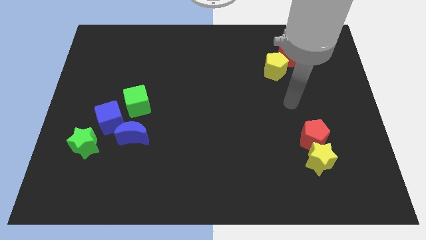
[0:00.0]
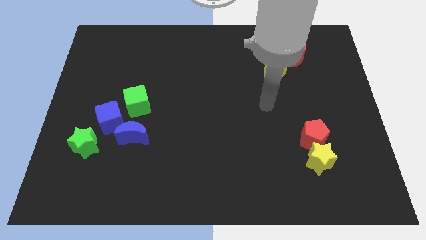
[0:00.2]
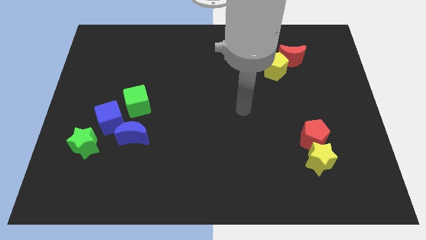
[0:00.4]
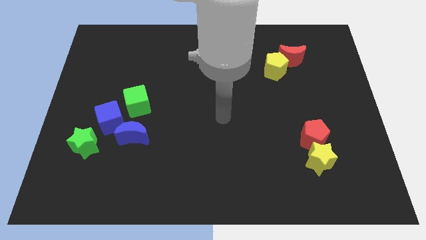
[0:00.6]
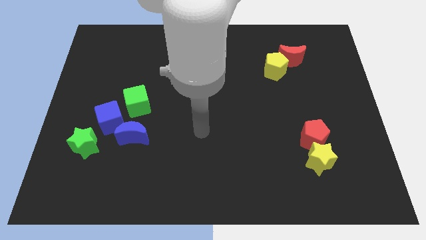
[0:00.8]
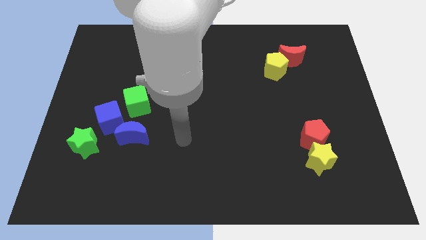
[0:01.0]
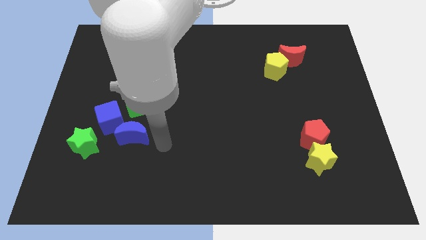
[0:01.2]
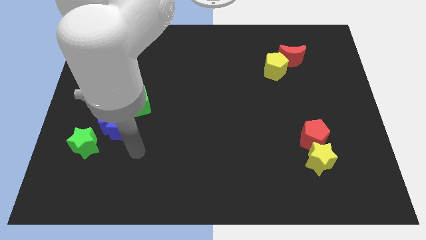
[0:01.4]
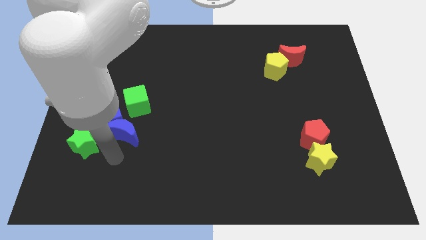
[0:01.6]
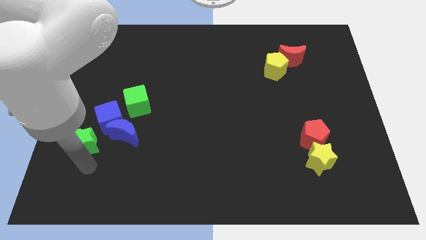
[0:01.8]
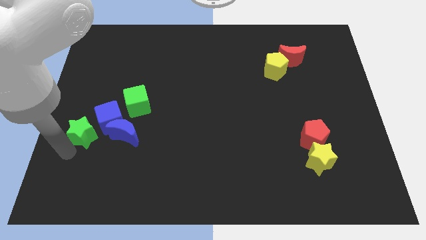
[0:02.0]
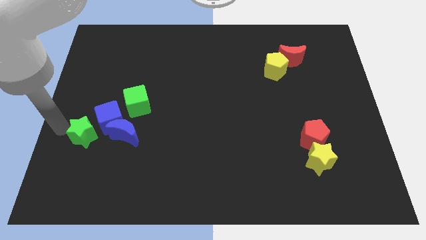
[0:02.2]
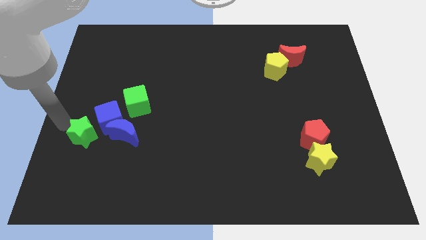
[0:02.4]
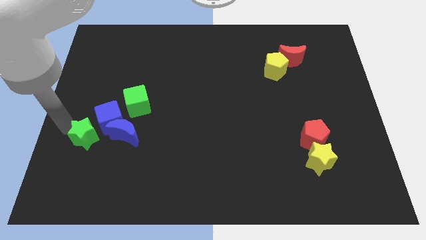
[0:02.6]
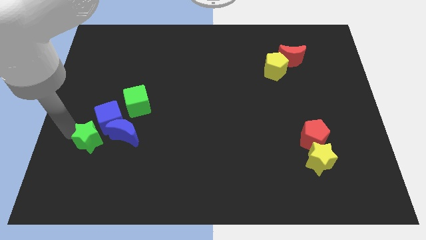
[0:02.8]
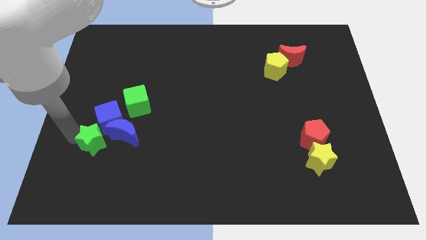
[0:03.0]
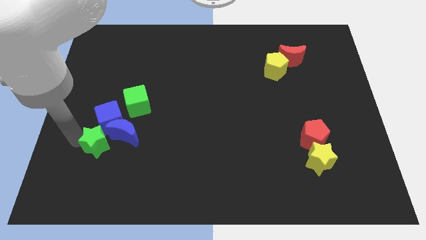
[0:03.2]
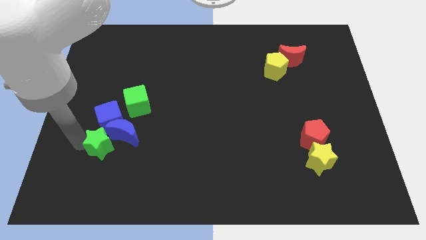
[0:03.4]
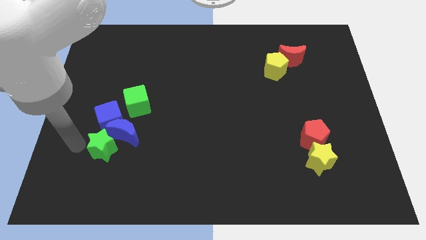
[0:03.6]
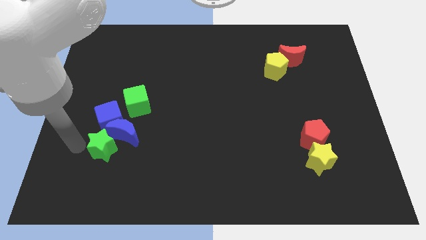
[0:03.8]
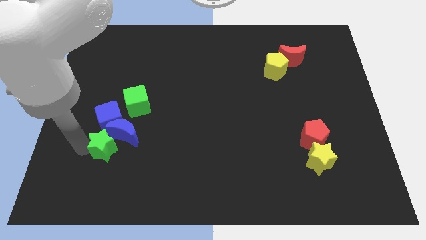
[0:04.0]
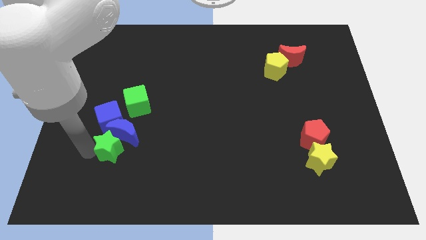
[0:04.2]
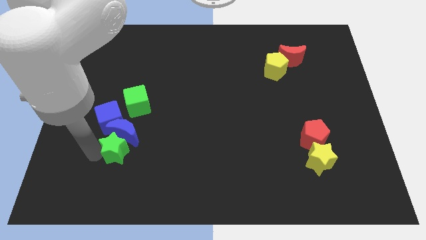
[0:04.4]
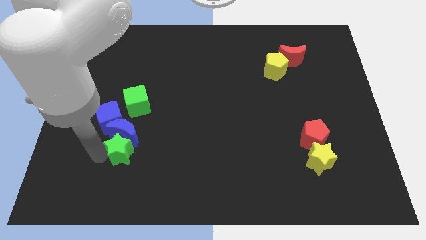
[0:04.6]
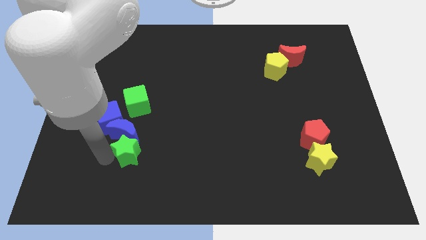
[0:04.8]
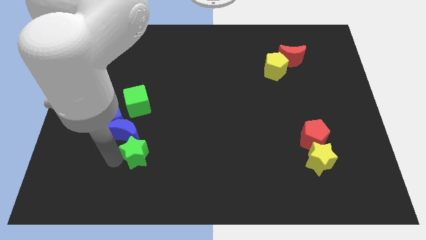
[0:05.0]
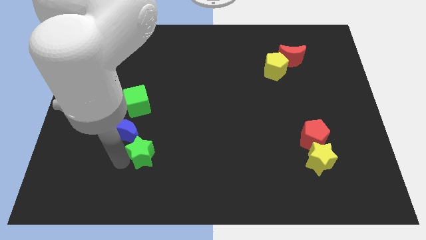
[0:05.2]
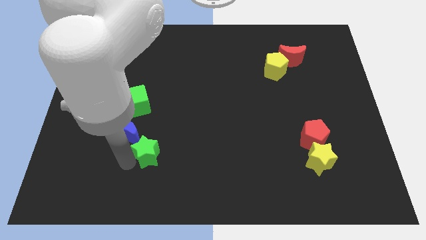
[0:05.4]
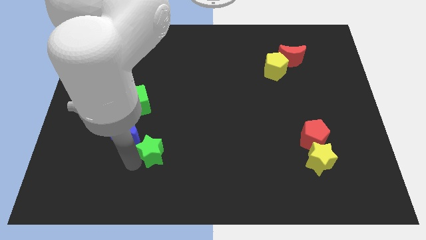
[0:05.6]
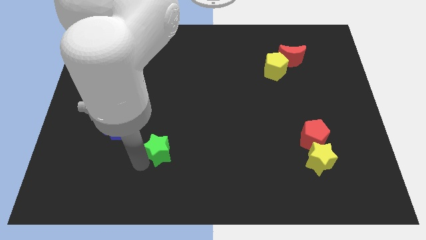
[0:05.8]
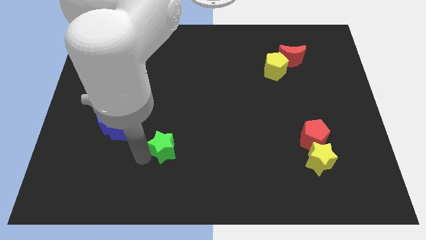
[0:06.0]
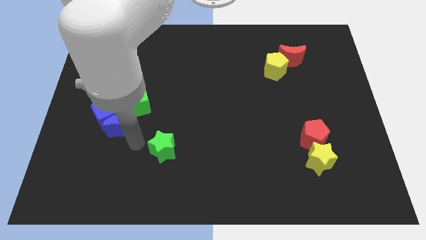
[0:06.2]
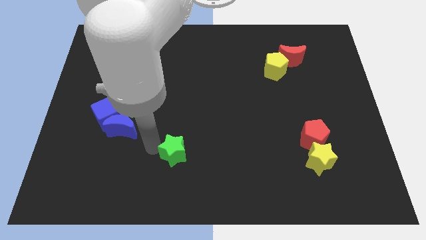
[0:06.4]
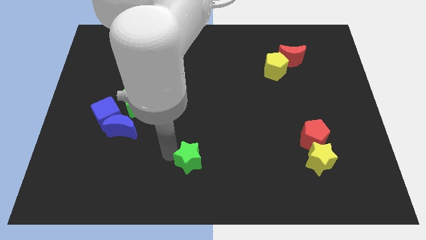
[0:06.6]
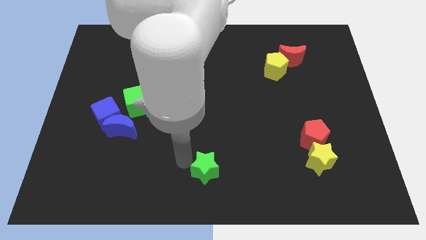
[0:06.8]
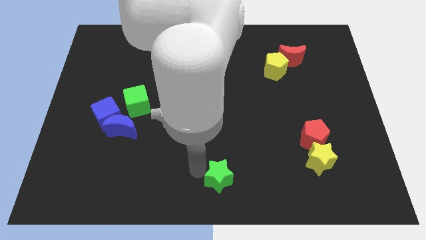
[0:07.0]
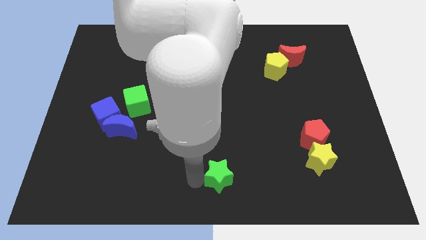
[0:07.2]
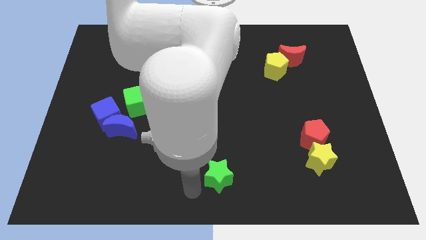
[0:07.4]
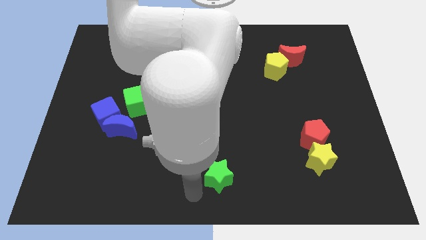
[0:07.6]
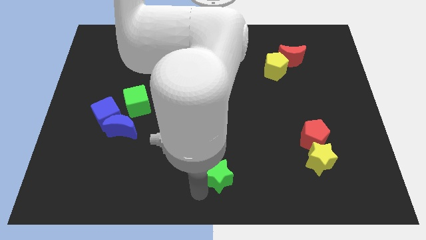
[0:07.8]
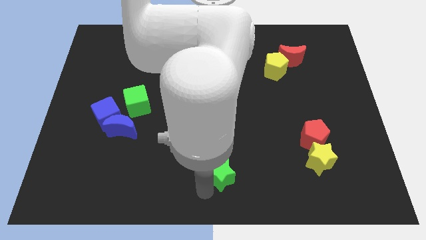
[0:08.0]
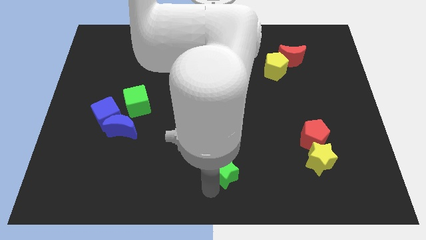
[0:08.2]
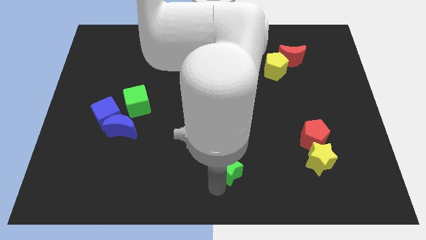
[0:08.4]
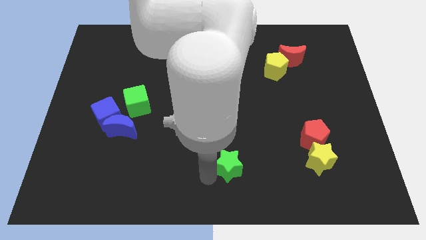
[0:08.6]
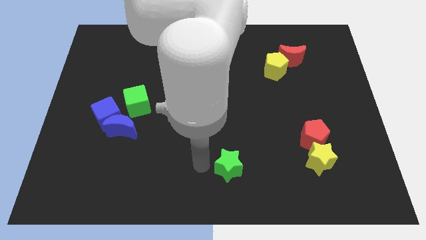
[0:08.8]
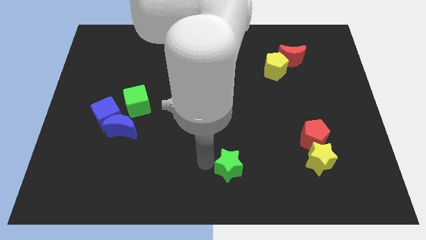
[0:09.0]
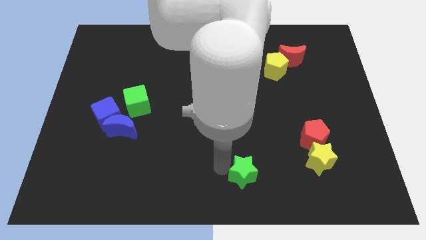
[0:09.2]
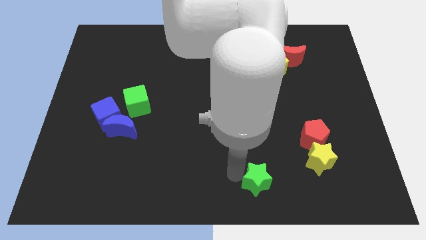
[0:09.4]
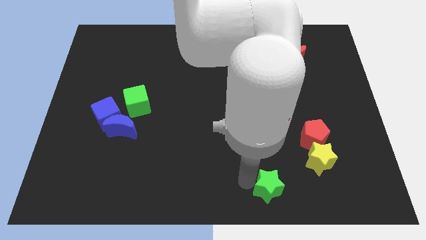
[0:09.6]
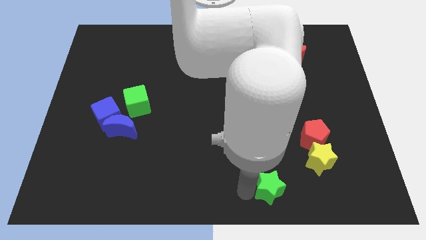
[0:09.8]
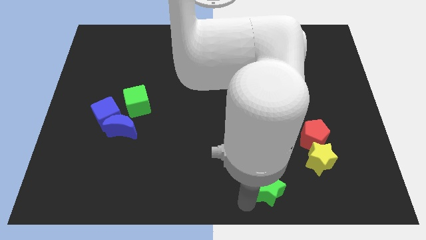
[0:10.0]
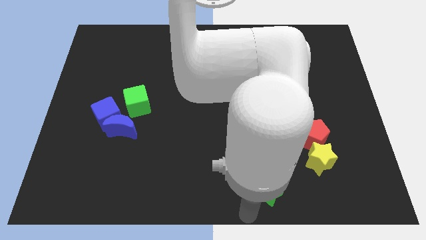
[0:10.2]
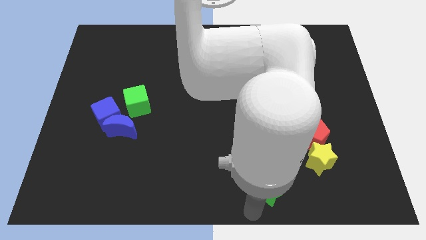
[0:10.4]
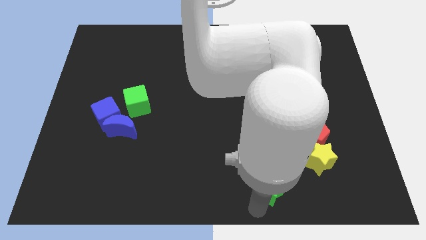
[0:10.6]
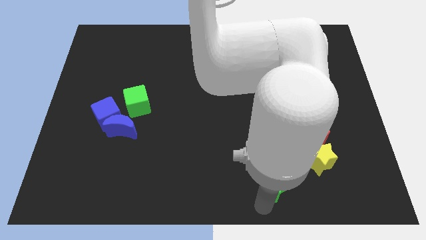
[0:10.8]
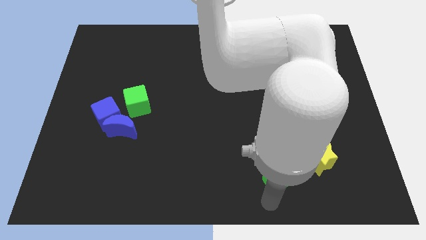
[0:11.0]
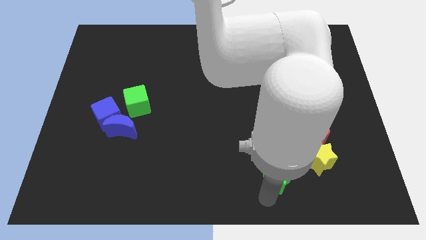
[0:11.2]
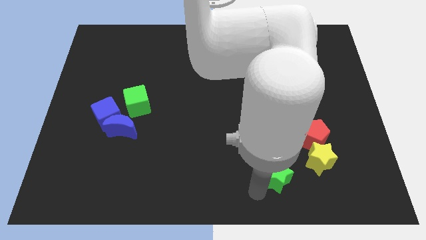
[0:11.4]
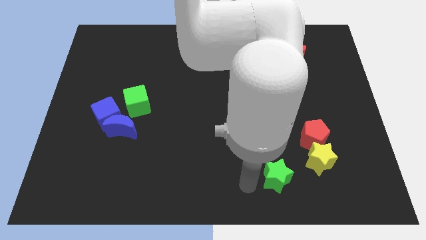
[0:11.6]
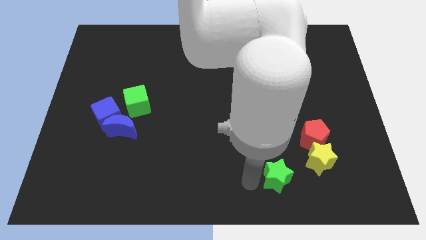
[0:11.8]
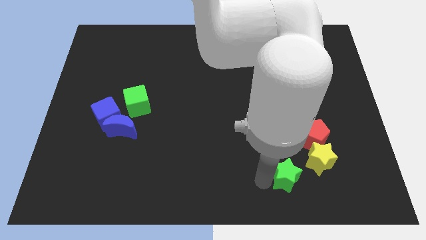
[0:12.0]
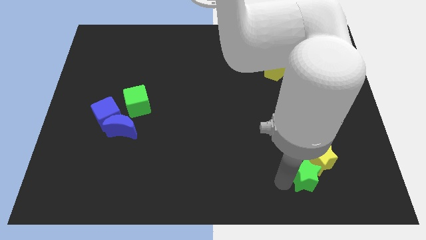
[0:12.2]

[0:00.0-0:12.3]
put the green star towards the yellow star
